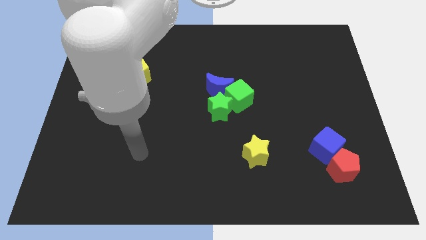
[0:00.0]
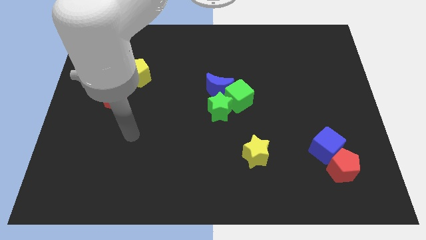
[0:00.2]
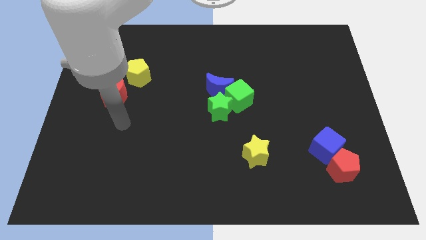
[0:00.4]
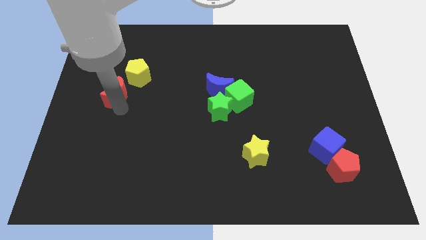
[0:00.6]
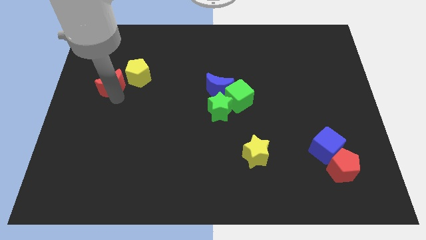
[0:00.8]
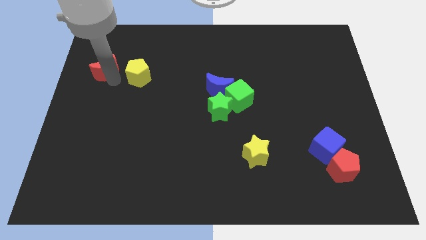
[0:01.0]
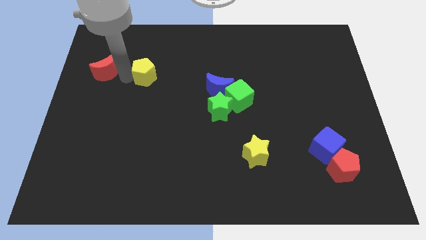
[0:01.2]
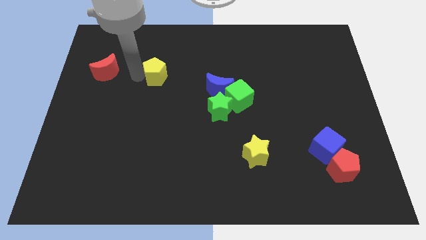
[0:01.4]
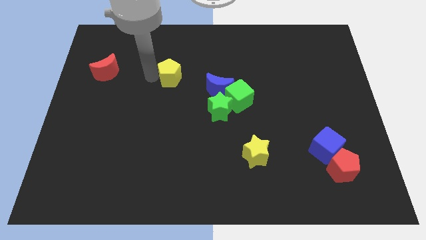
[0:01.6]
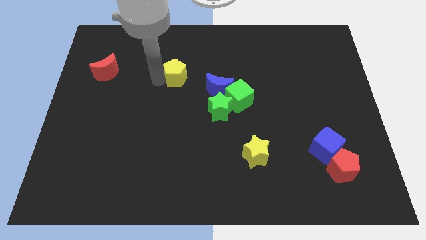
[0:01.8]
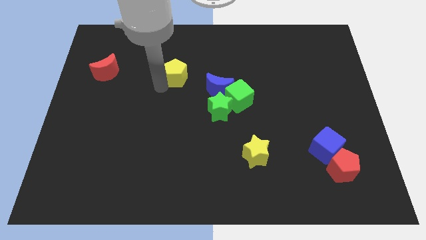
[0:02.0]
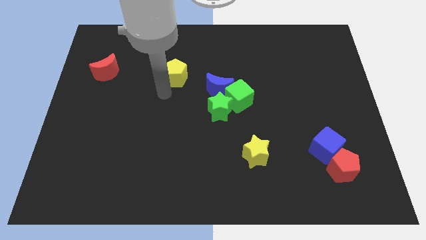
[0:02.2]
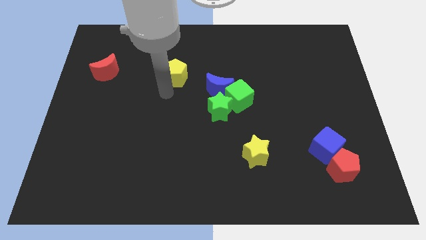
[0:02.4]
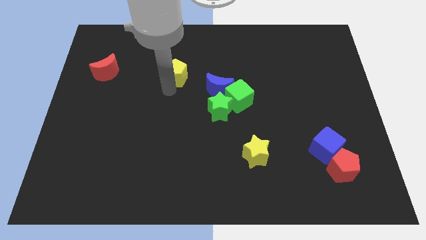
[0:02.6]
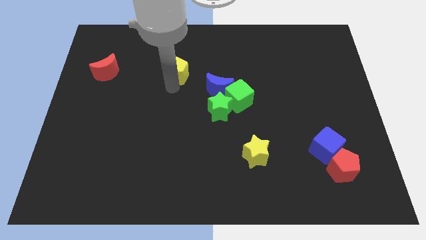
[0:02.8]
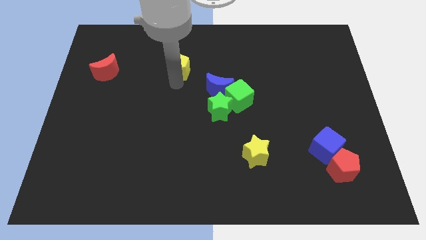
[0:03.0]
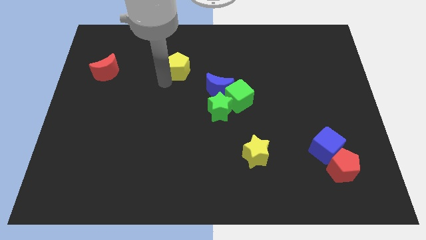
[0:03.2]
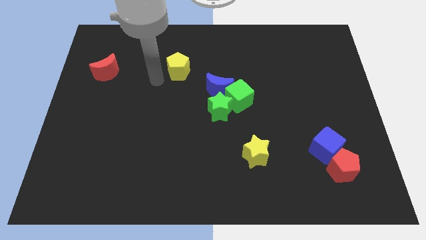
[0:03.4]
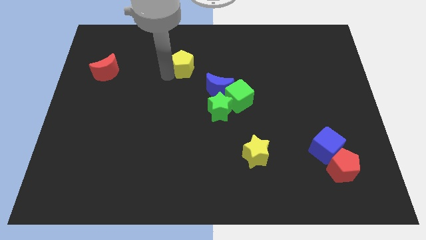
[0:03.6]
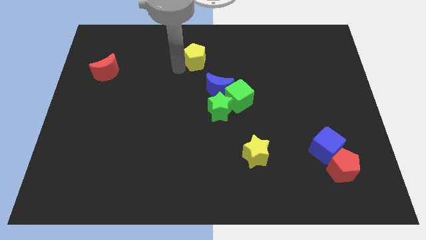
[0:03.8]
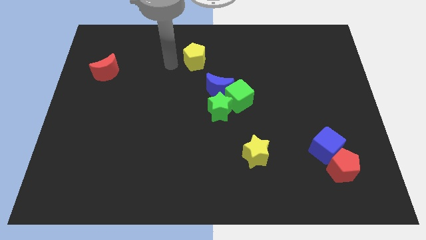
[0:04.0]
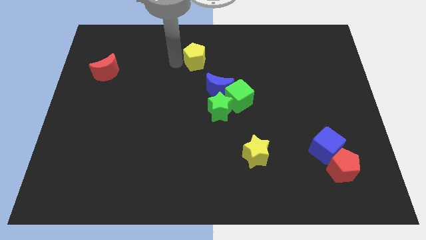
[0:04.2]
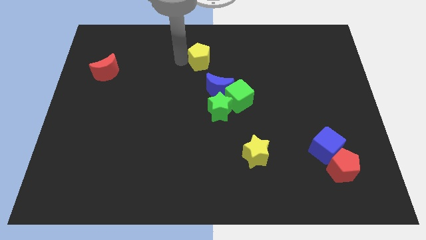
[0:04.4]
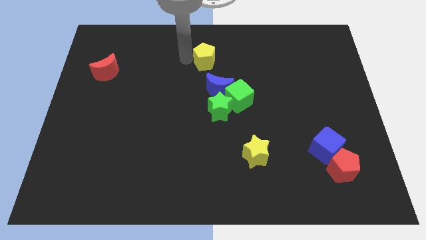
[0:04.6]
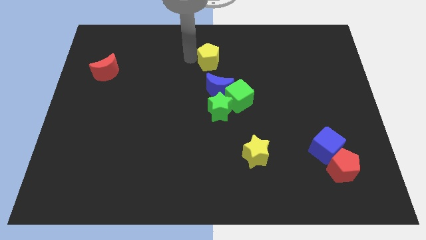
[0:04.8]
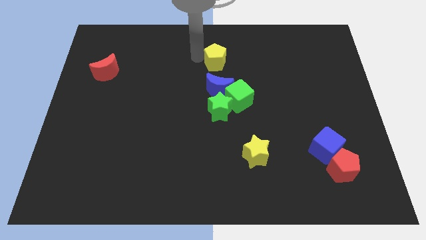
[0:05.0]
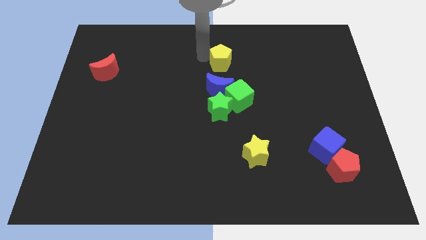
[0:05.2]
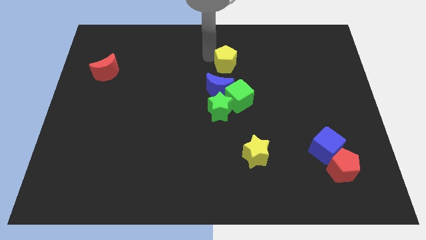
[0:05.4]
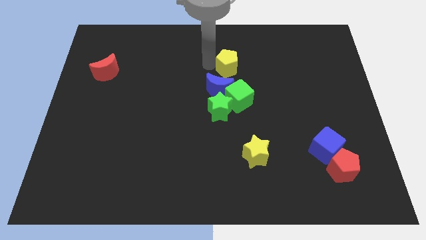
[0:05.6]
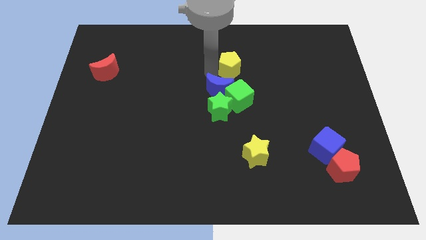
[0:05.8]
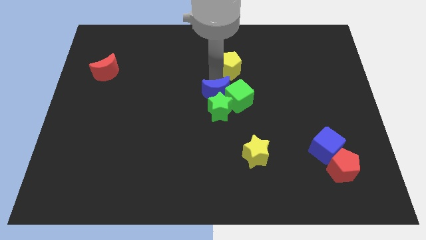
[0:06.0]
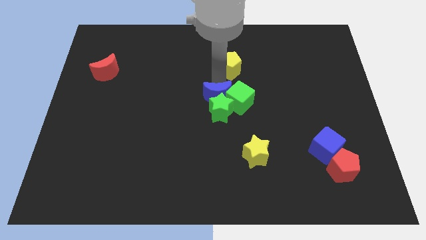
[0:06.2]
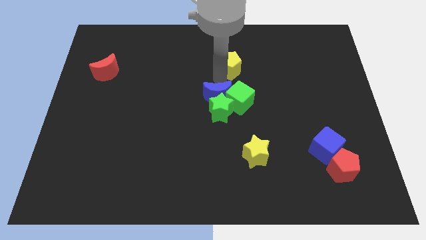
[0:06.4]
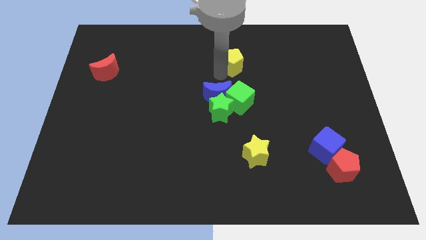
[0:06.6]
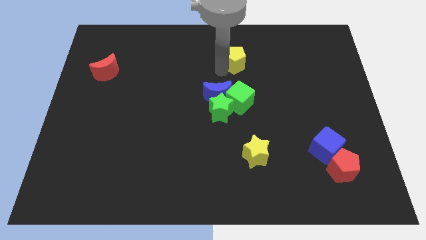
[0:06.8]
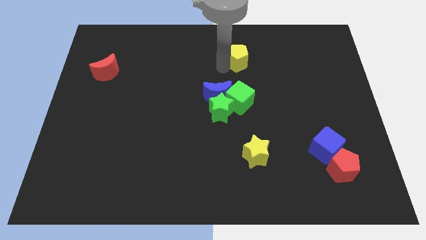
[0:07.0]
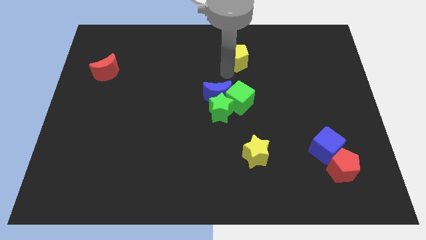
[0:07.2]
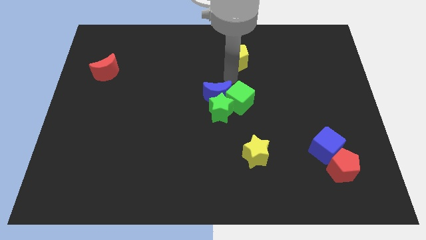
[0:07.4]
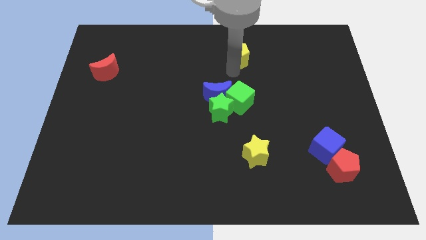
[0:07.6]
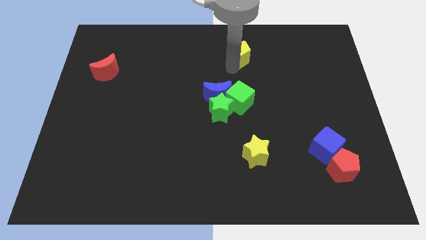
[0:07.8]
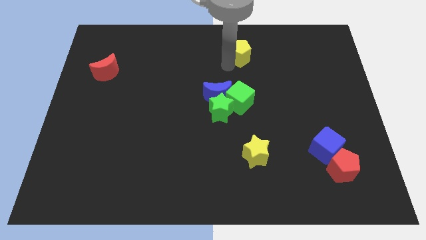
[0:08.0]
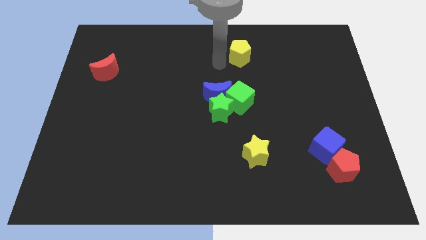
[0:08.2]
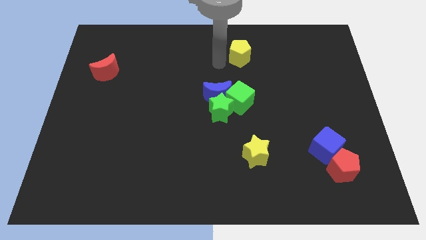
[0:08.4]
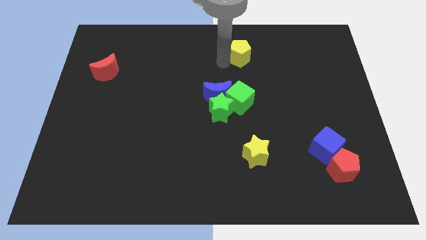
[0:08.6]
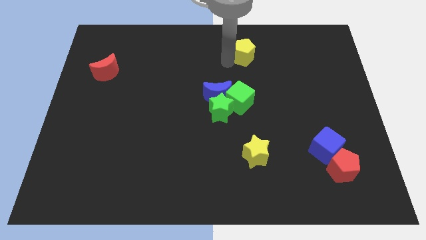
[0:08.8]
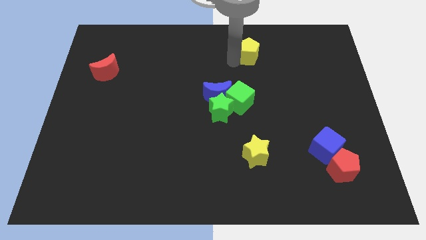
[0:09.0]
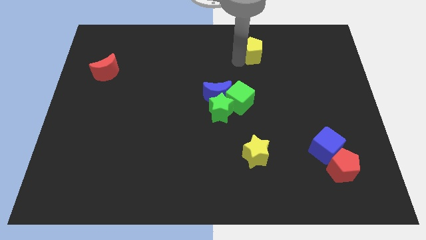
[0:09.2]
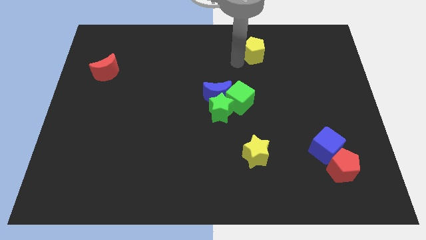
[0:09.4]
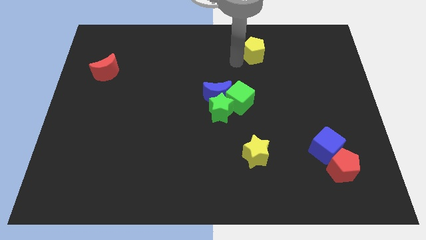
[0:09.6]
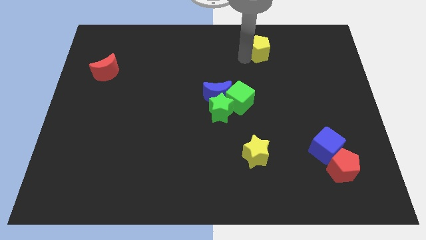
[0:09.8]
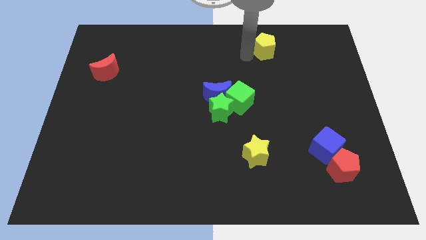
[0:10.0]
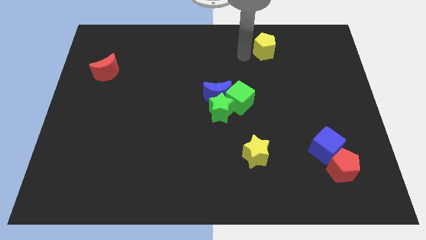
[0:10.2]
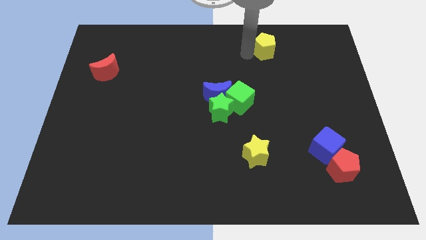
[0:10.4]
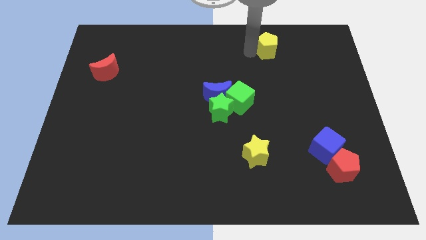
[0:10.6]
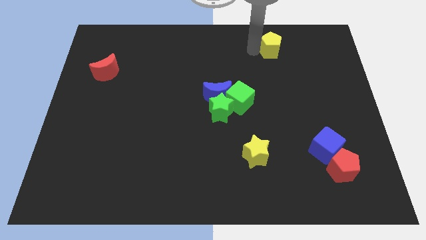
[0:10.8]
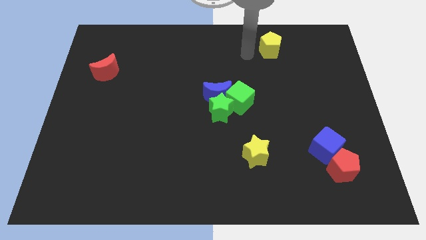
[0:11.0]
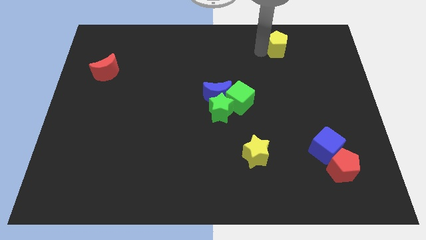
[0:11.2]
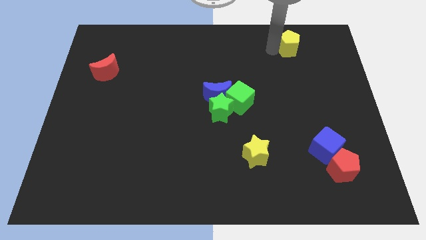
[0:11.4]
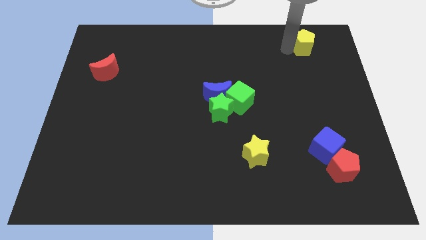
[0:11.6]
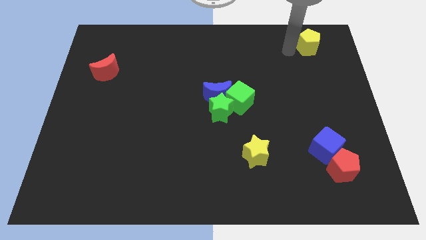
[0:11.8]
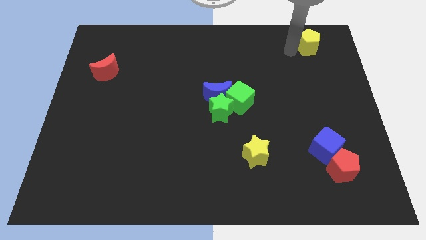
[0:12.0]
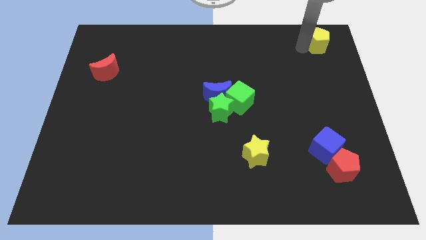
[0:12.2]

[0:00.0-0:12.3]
put the yellow pentagon to the top right corner
